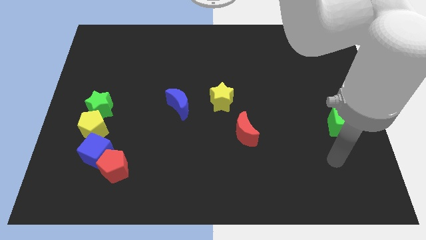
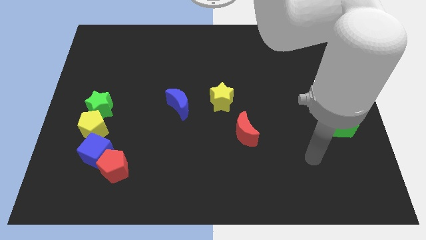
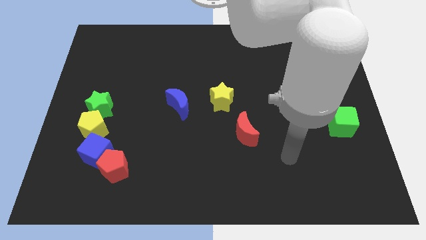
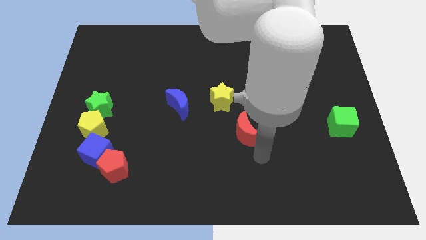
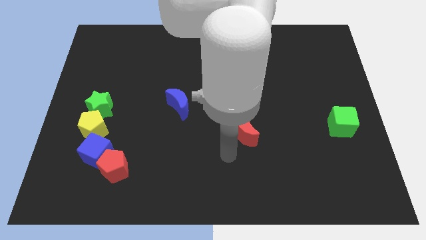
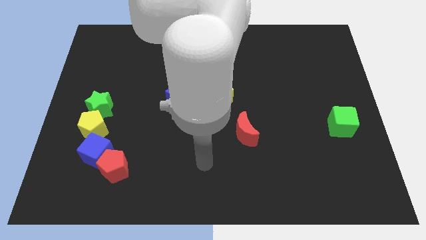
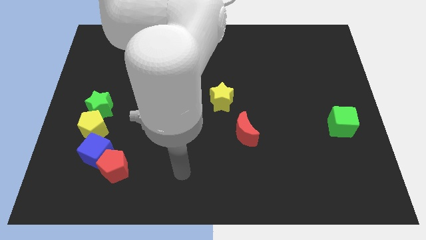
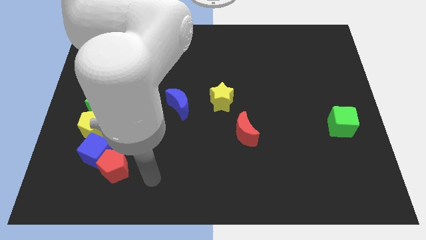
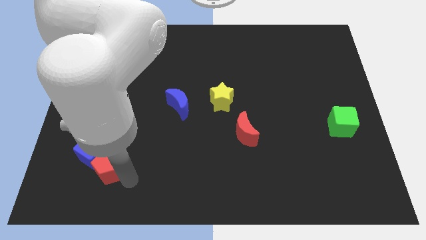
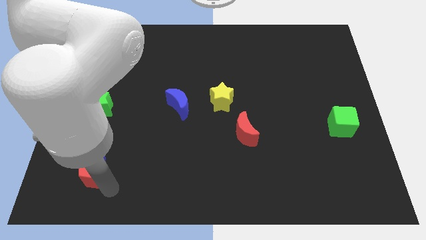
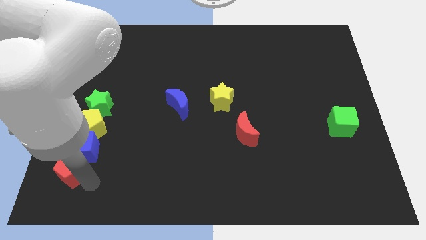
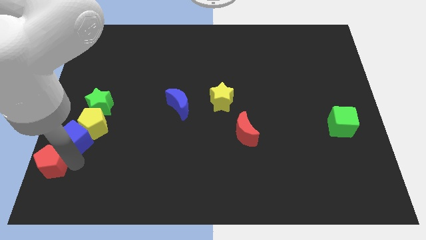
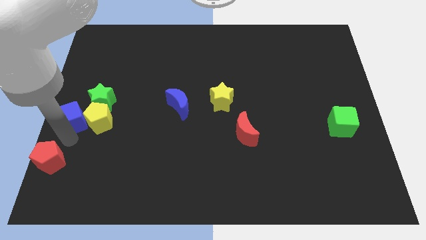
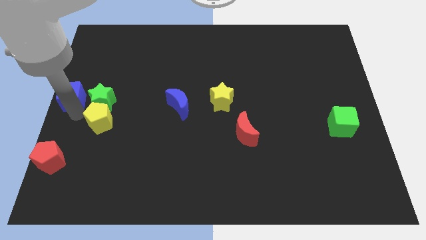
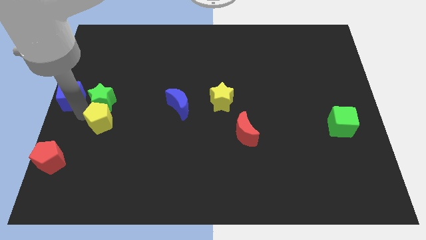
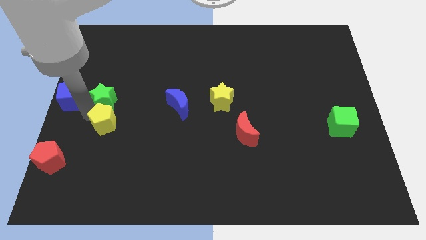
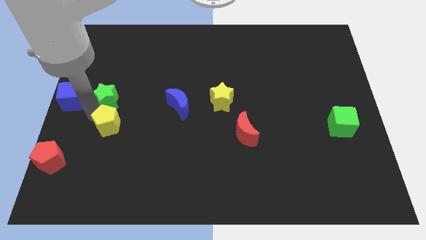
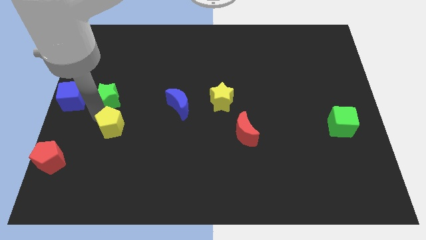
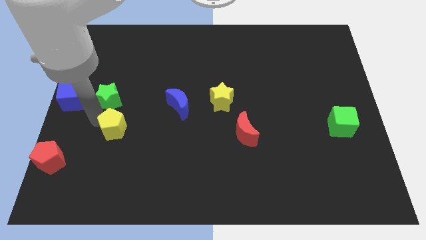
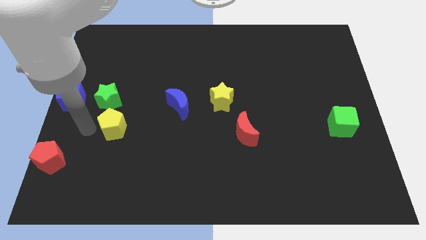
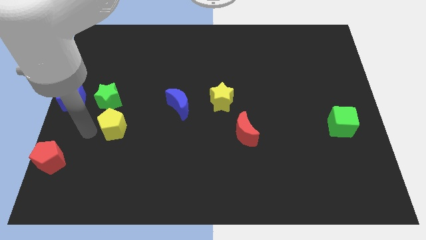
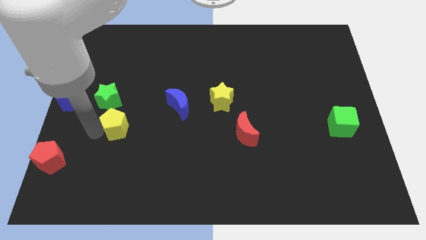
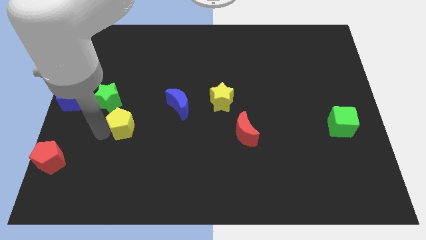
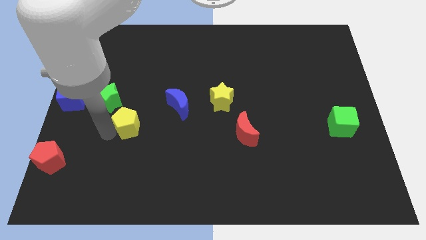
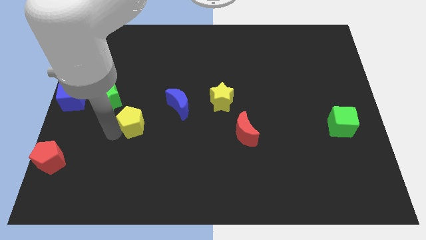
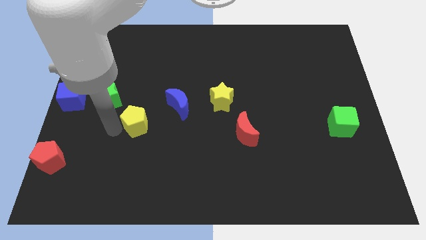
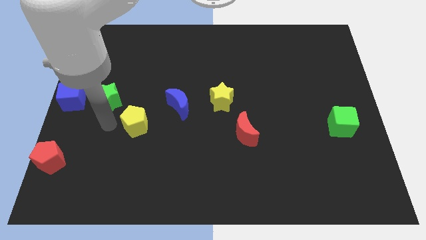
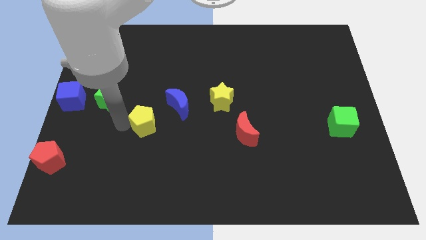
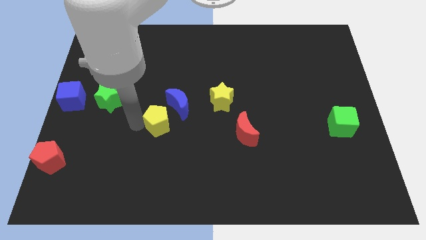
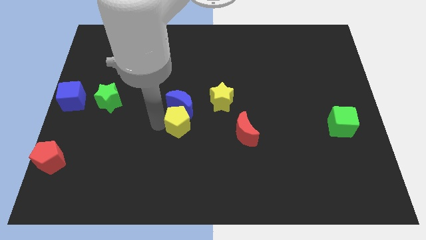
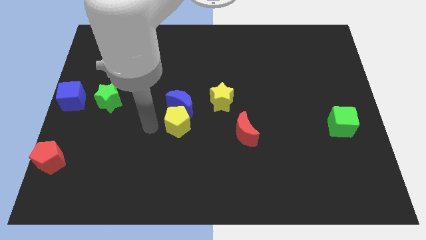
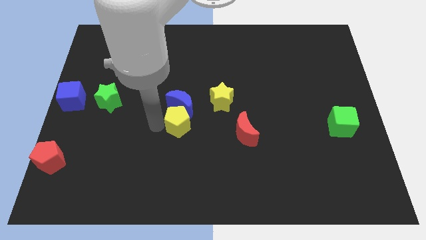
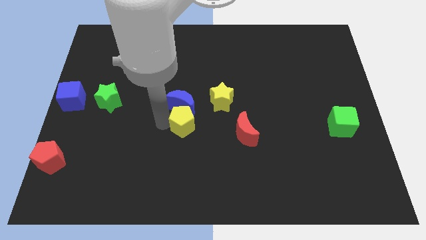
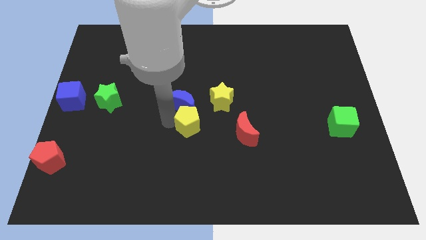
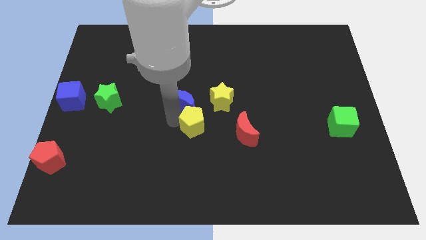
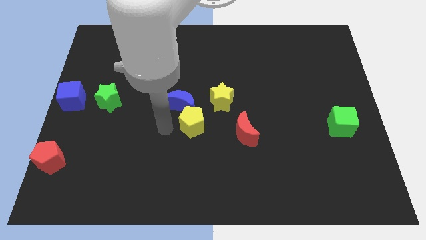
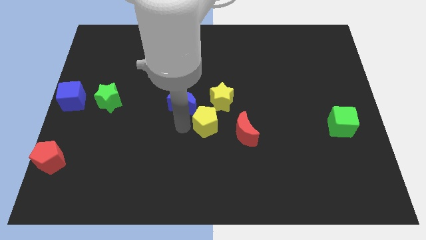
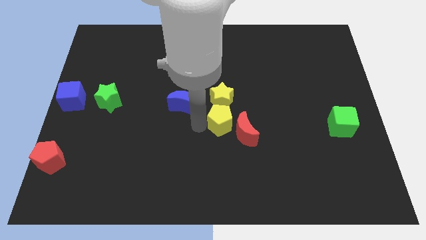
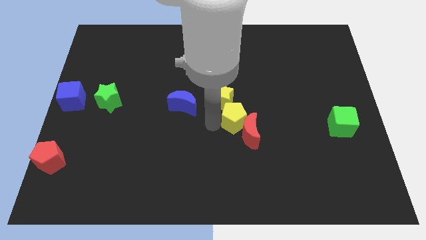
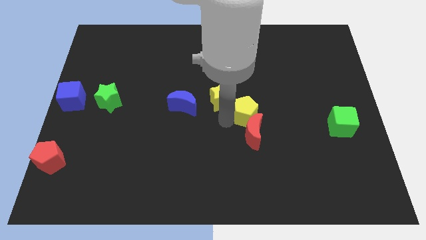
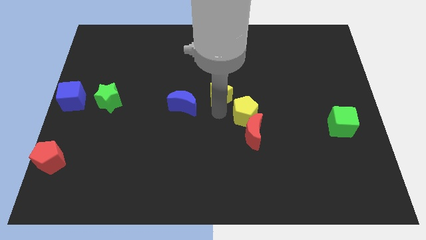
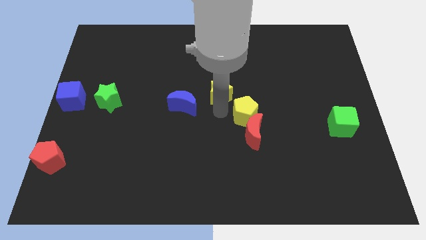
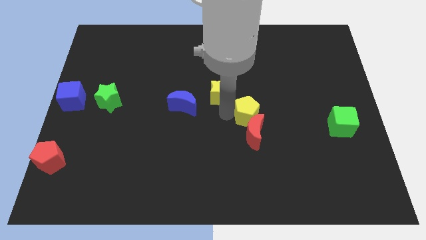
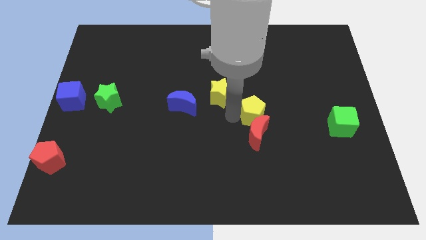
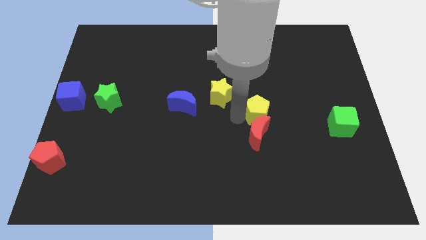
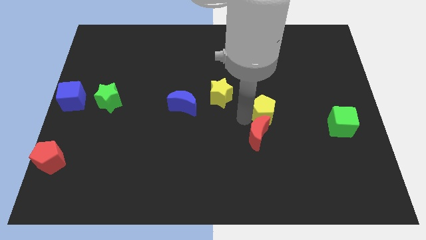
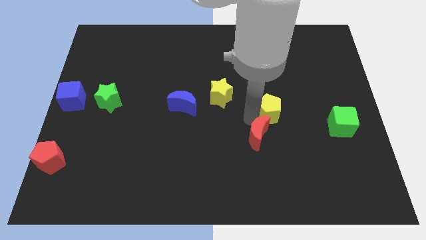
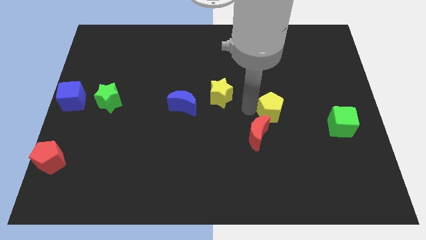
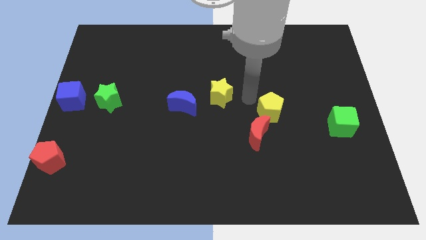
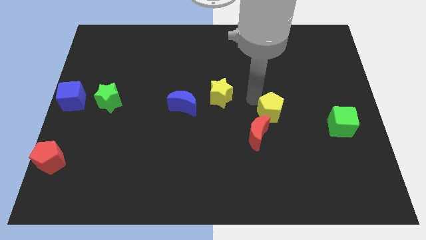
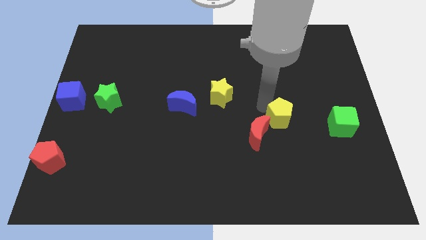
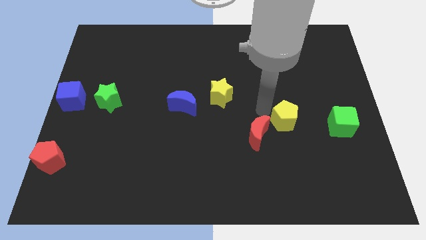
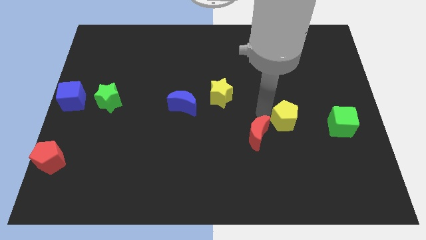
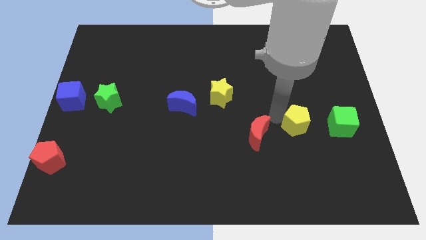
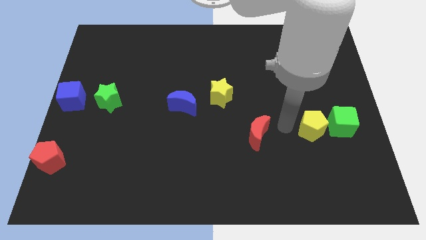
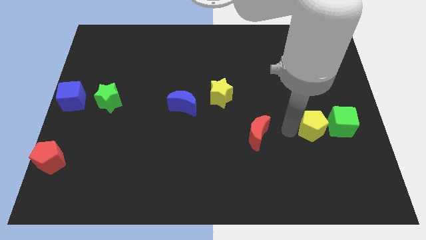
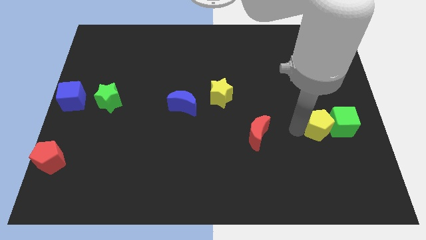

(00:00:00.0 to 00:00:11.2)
move the yellow pentagon next to the green cube

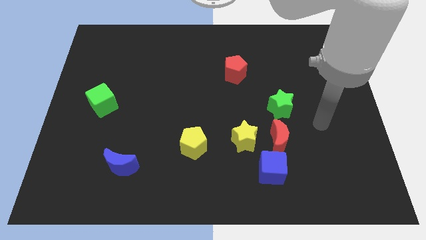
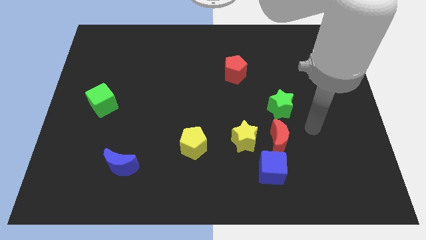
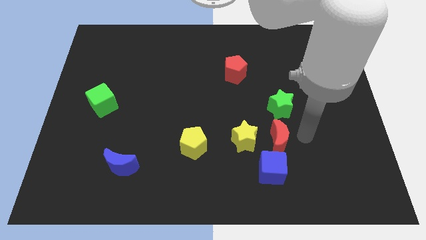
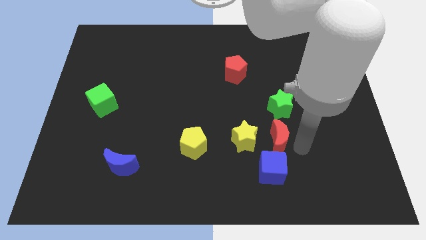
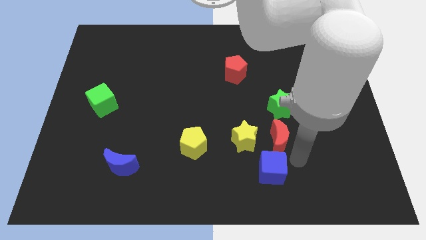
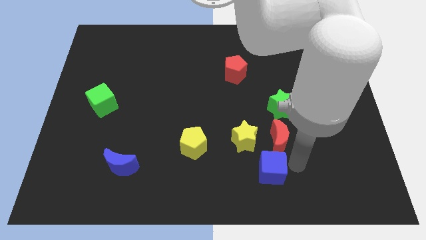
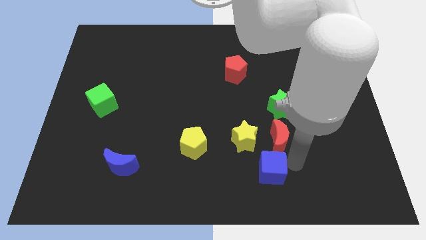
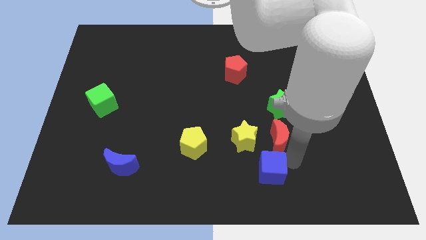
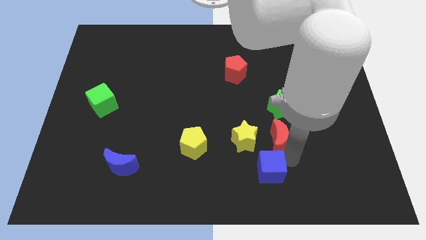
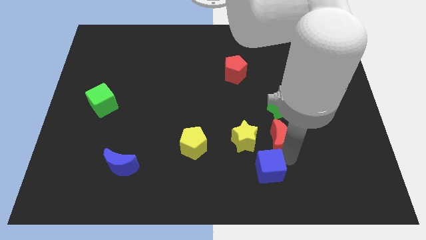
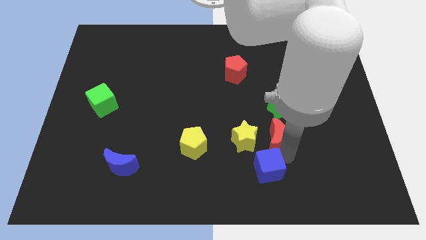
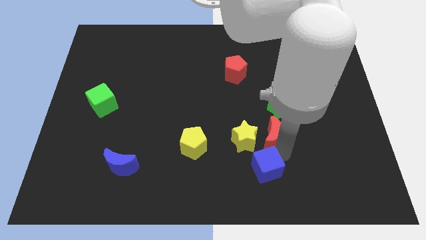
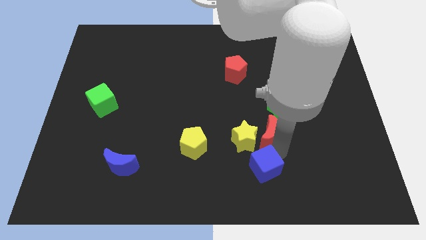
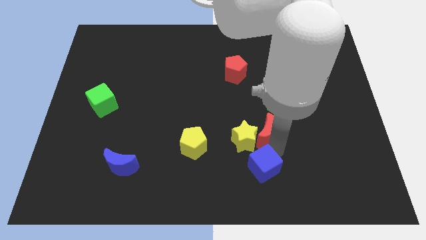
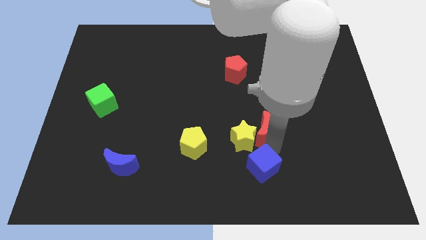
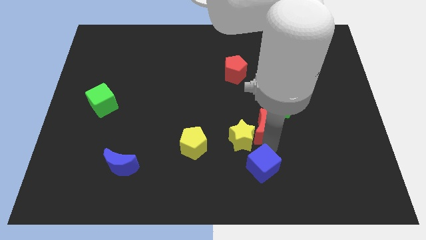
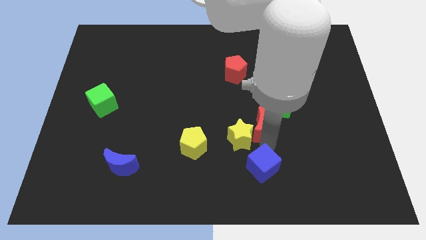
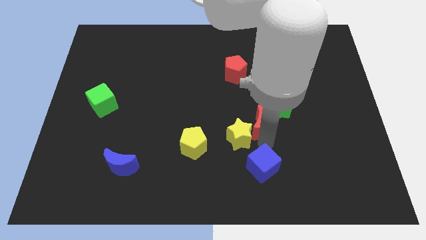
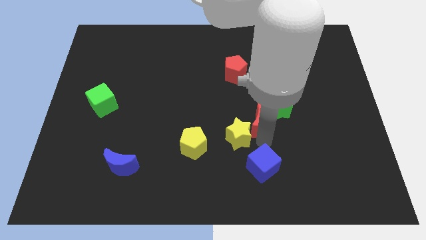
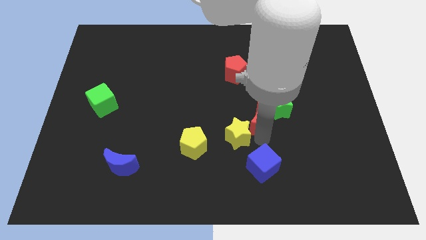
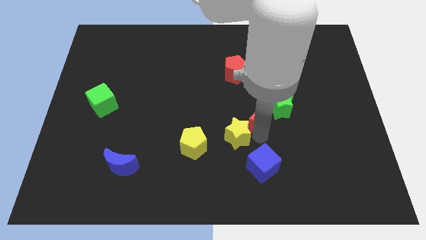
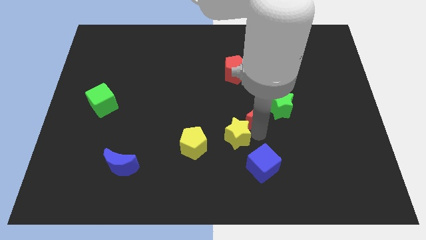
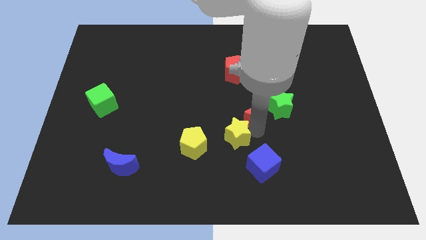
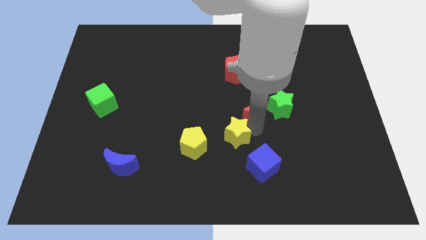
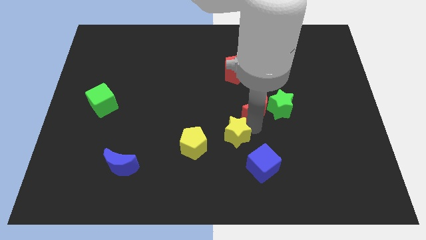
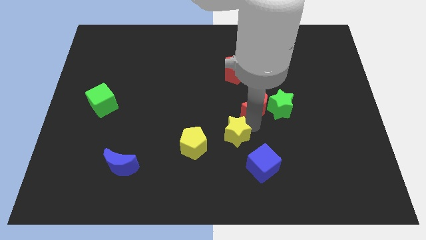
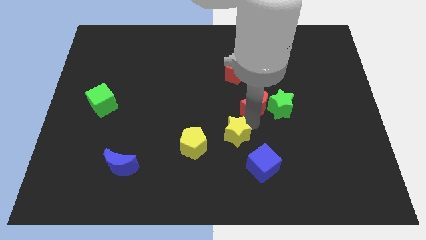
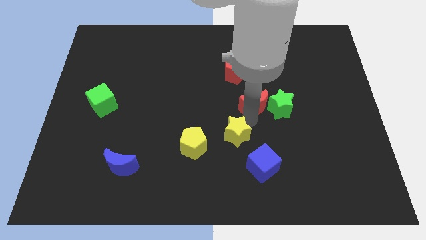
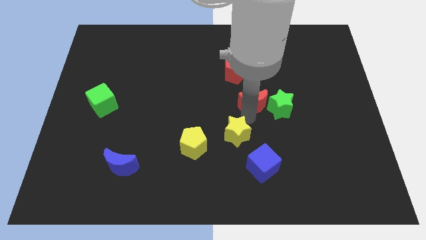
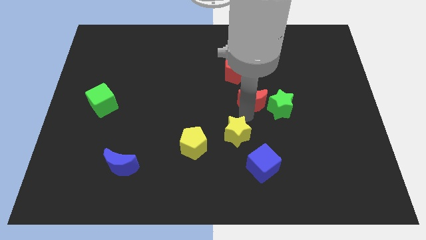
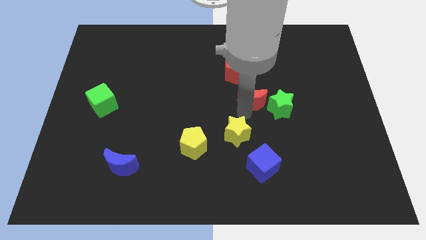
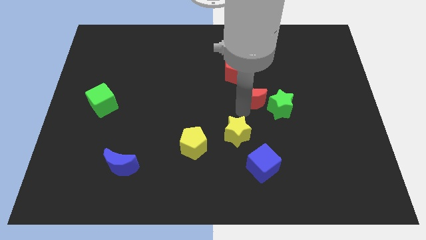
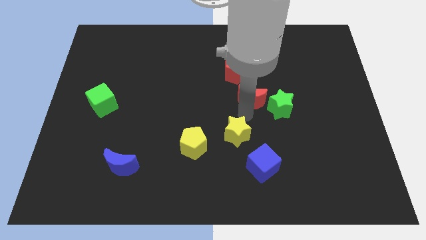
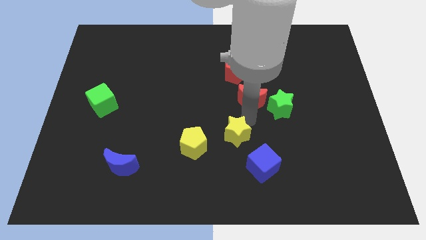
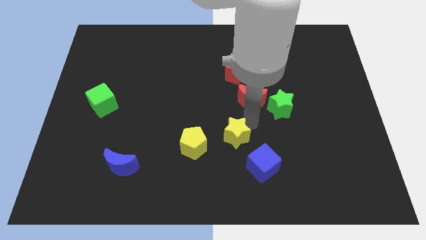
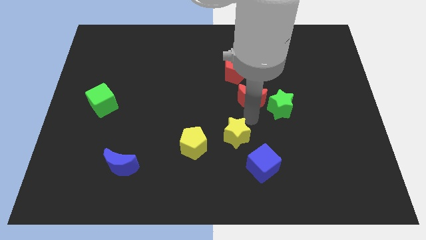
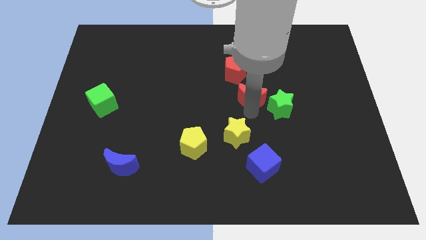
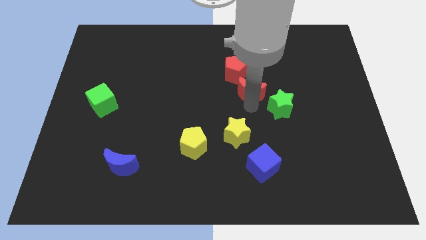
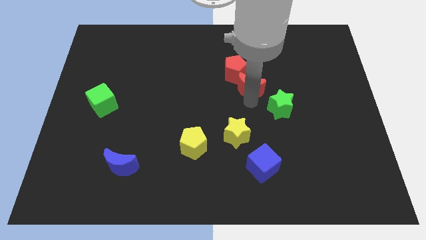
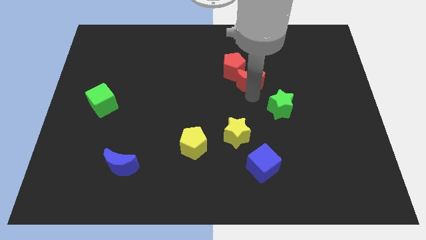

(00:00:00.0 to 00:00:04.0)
push the red moon next to the red pentagon
